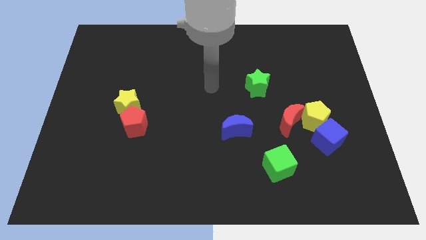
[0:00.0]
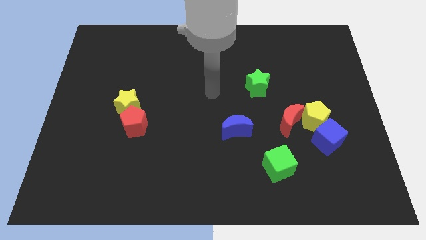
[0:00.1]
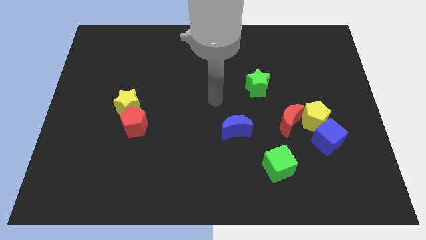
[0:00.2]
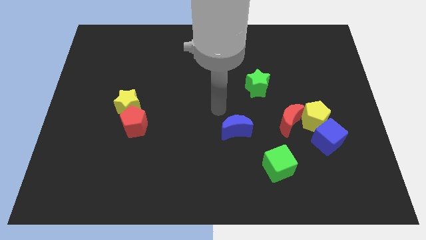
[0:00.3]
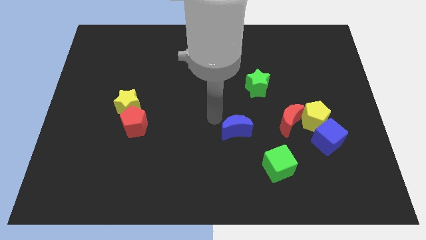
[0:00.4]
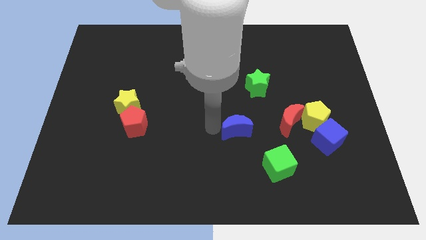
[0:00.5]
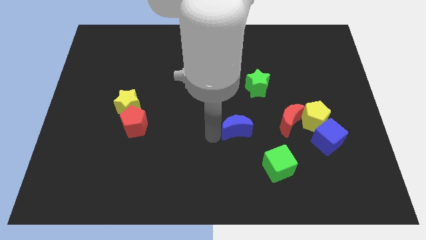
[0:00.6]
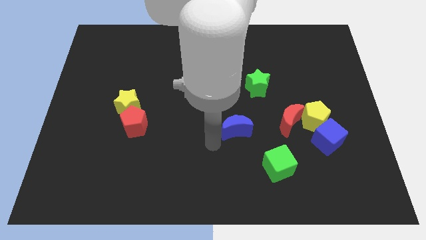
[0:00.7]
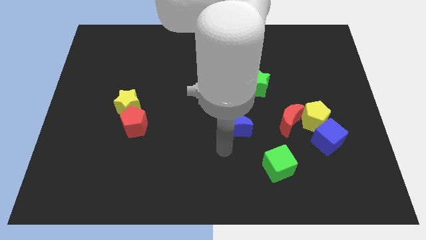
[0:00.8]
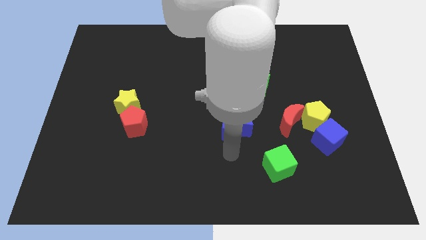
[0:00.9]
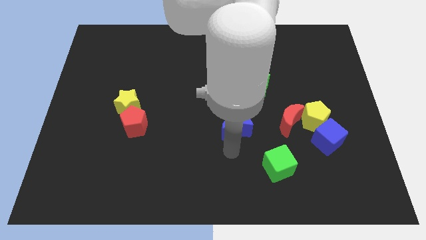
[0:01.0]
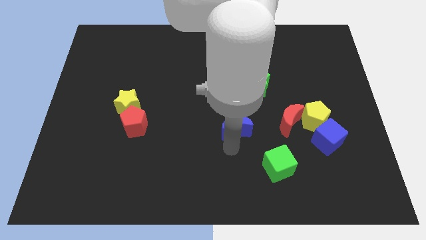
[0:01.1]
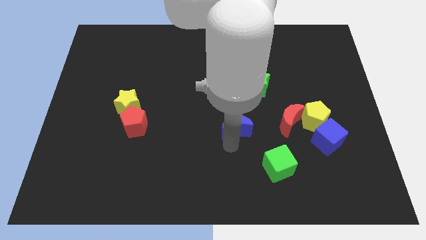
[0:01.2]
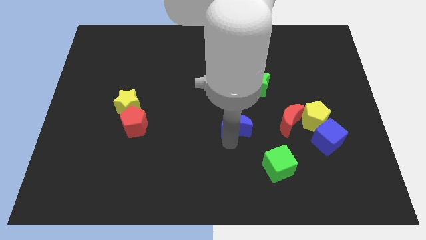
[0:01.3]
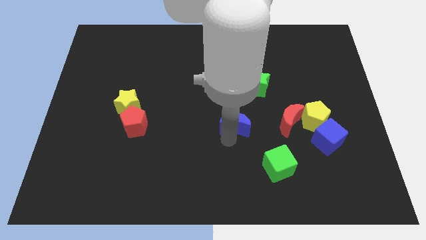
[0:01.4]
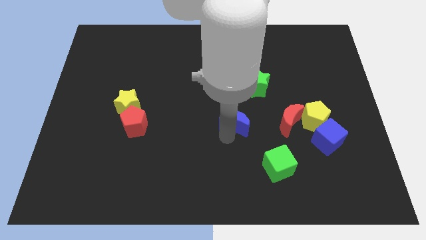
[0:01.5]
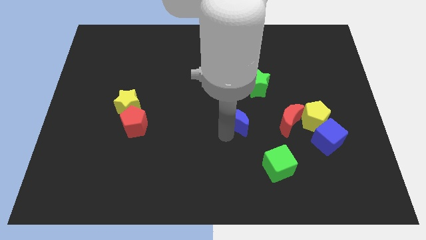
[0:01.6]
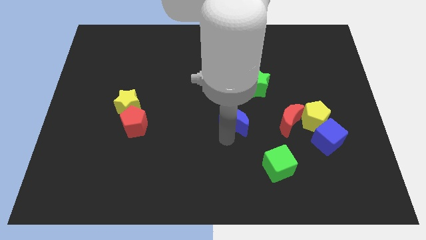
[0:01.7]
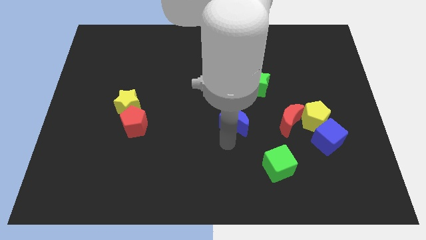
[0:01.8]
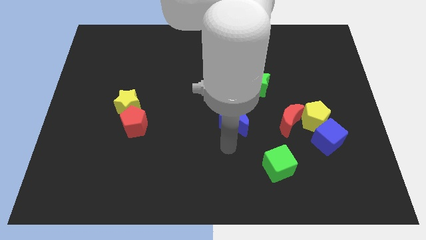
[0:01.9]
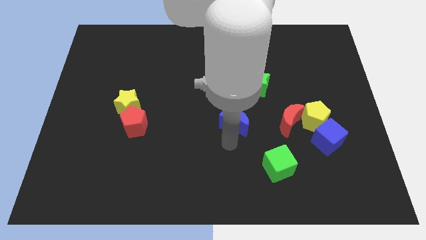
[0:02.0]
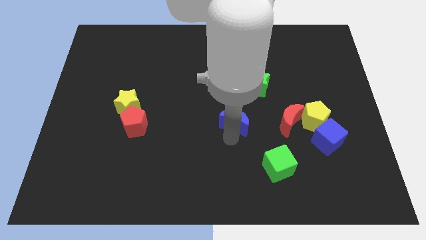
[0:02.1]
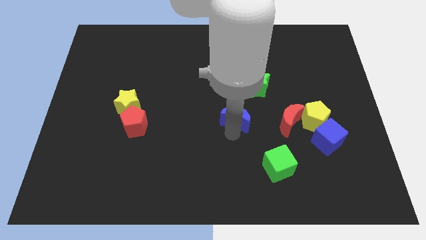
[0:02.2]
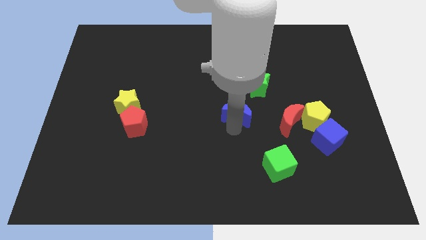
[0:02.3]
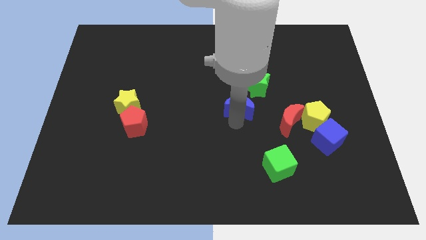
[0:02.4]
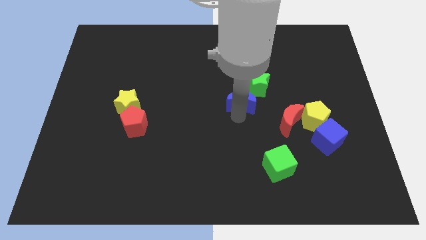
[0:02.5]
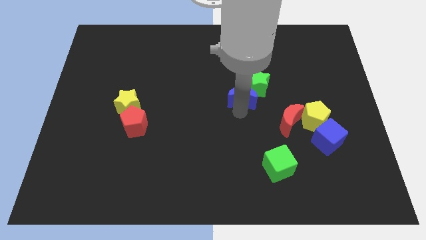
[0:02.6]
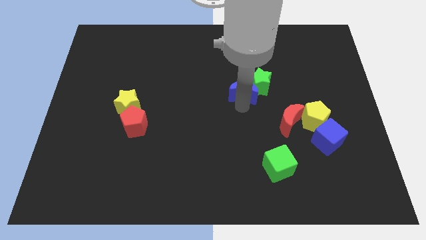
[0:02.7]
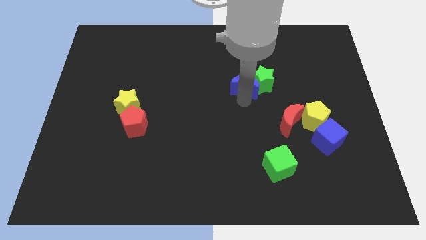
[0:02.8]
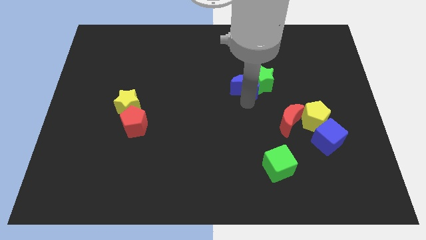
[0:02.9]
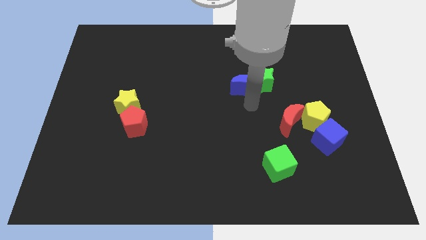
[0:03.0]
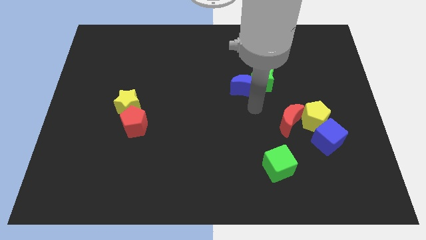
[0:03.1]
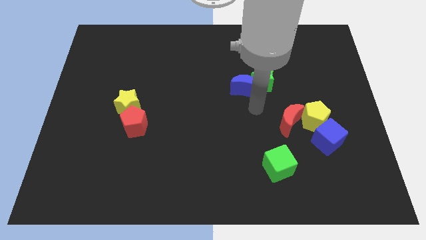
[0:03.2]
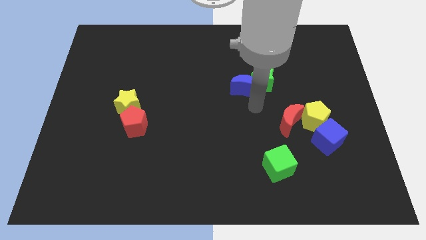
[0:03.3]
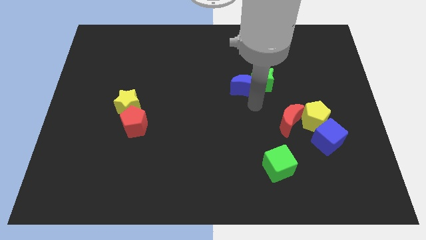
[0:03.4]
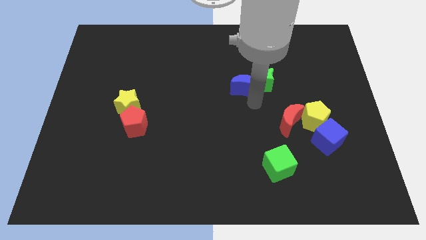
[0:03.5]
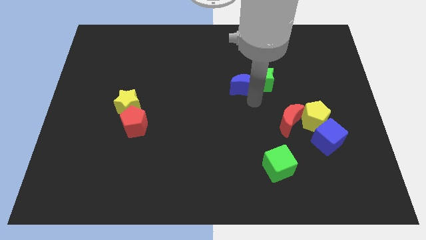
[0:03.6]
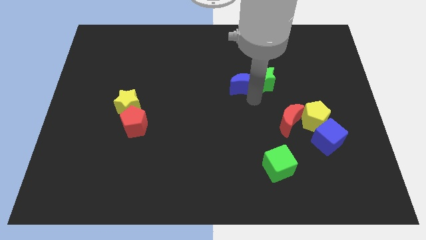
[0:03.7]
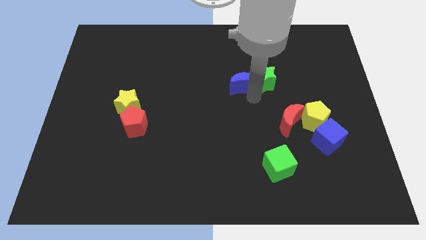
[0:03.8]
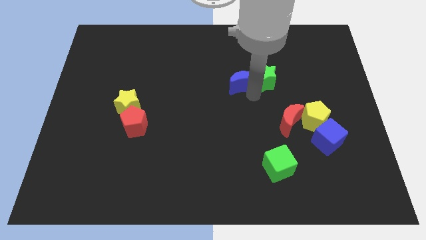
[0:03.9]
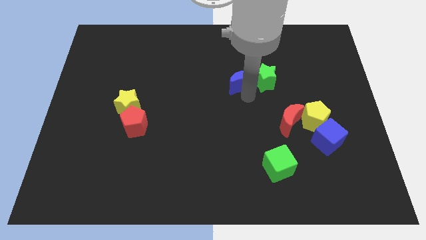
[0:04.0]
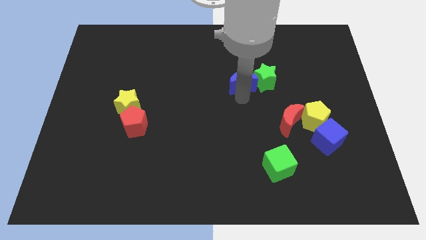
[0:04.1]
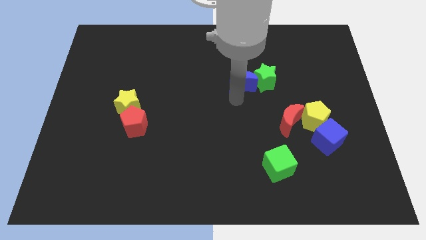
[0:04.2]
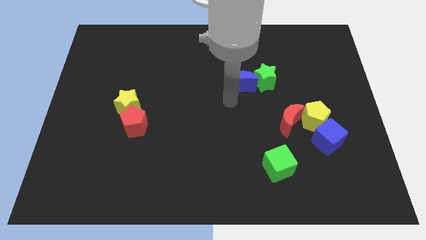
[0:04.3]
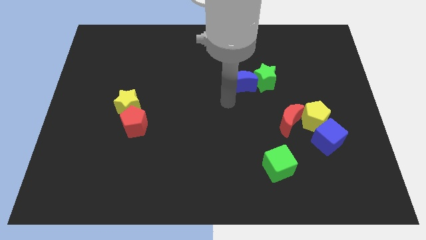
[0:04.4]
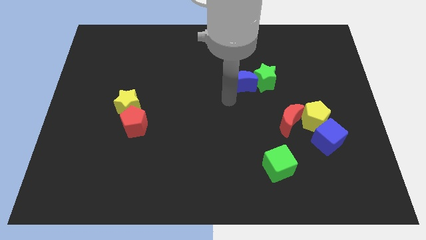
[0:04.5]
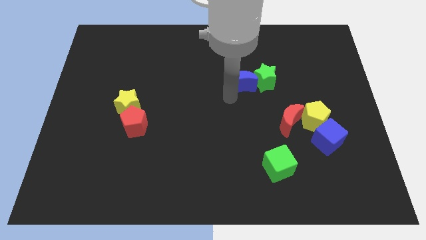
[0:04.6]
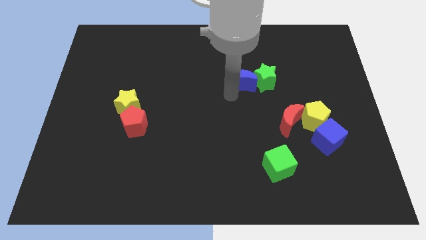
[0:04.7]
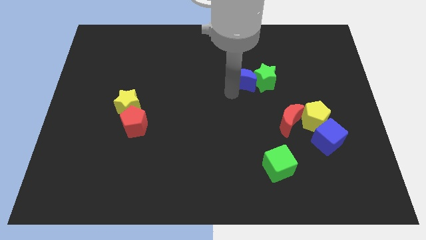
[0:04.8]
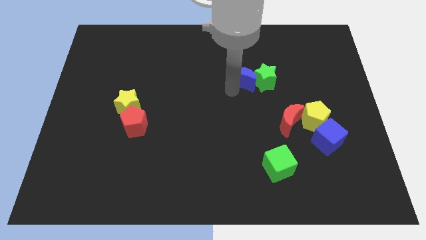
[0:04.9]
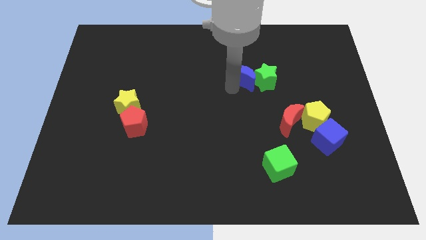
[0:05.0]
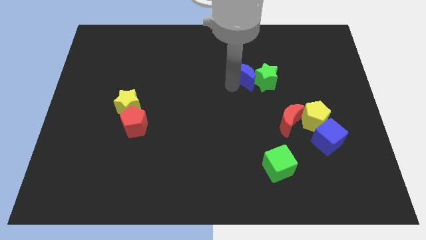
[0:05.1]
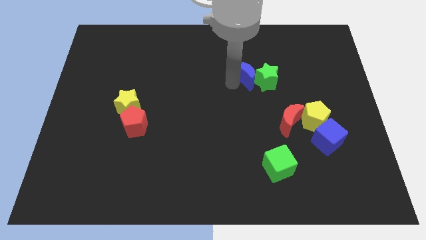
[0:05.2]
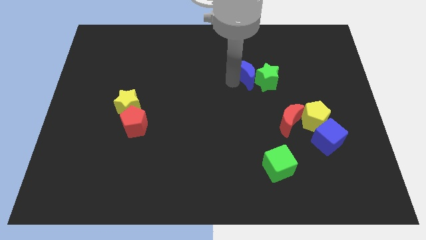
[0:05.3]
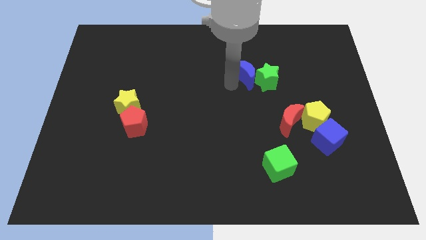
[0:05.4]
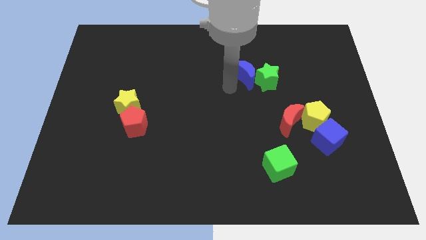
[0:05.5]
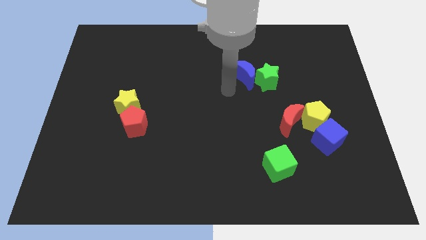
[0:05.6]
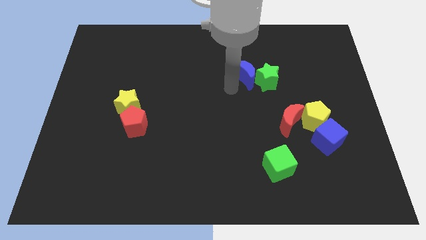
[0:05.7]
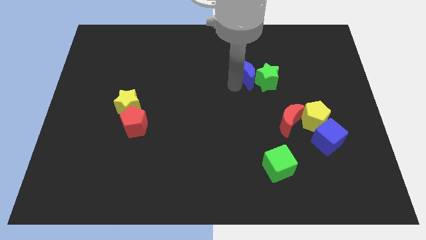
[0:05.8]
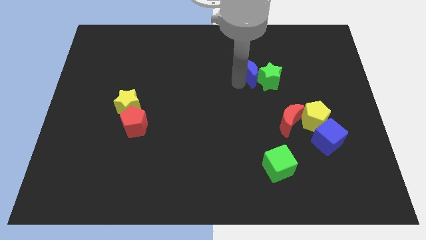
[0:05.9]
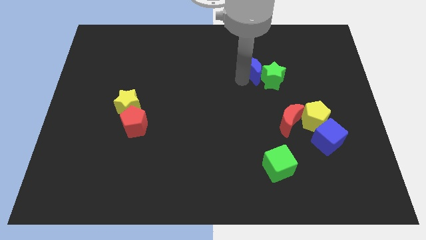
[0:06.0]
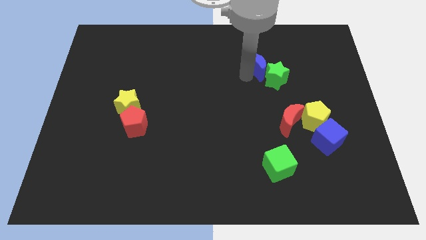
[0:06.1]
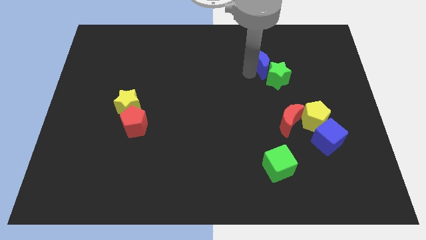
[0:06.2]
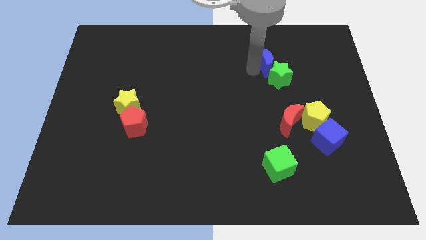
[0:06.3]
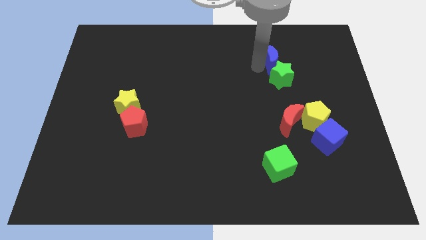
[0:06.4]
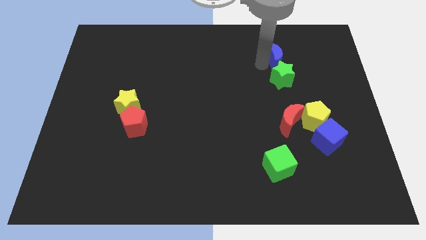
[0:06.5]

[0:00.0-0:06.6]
move the blue moon upwards and to the right diagonally

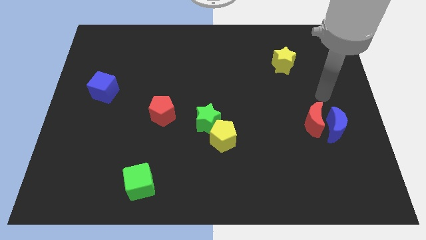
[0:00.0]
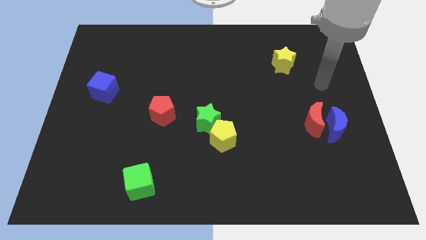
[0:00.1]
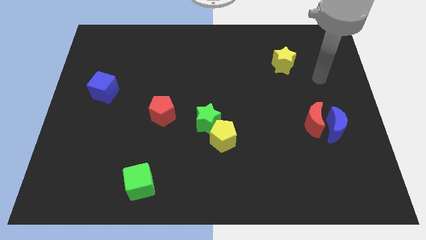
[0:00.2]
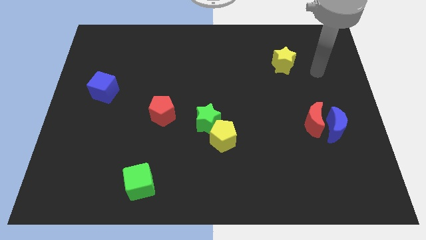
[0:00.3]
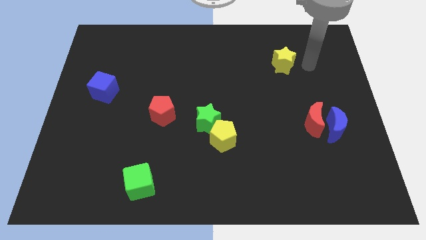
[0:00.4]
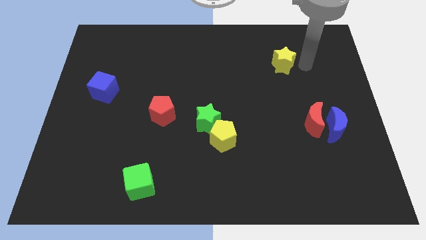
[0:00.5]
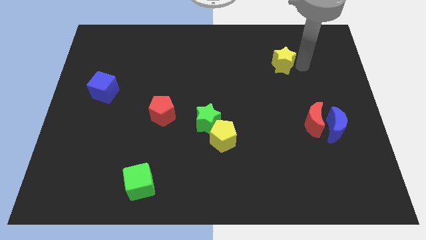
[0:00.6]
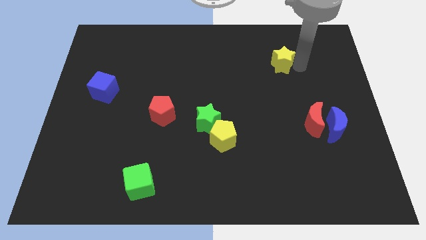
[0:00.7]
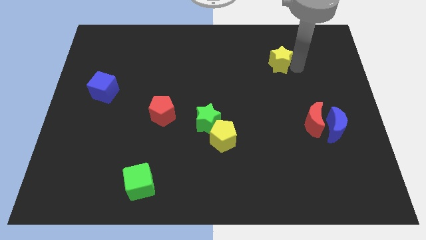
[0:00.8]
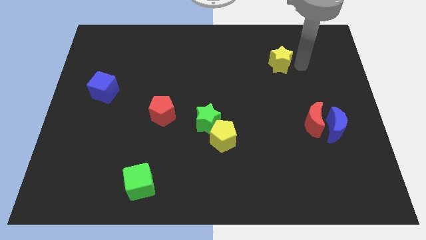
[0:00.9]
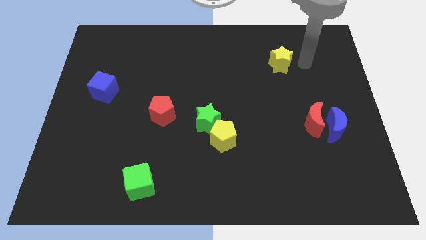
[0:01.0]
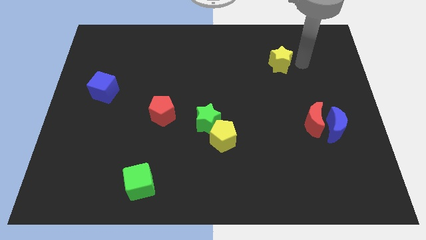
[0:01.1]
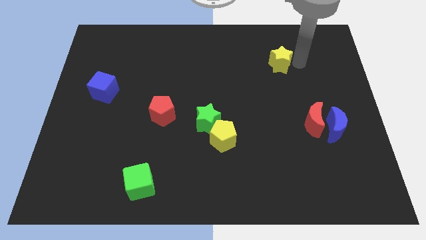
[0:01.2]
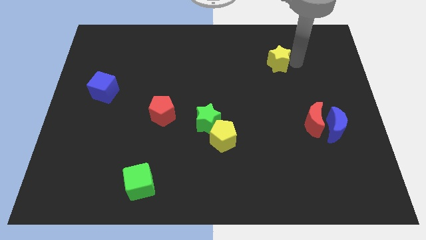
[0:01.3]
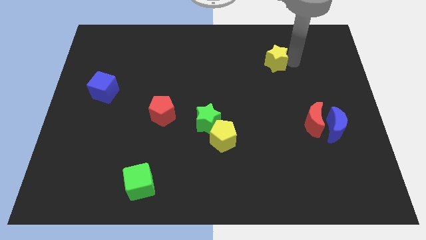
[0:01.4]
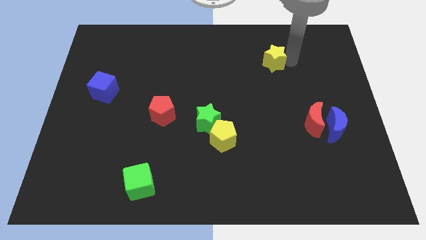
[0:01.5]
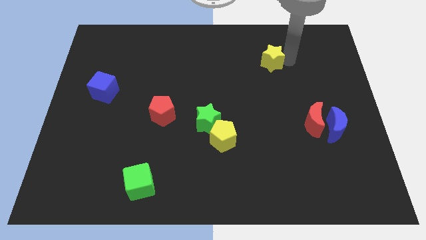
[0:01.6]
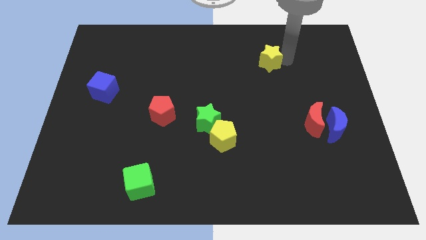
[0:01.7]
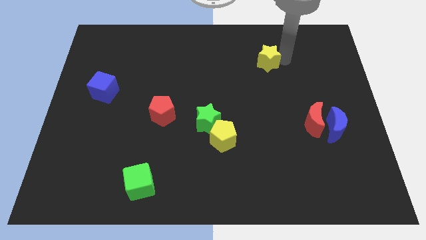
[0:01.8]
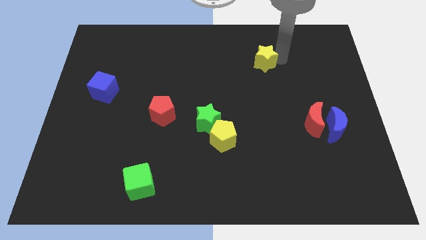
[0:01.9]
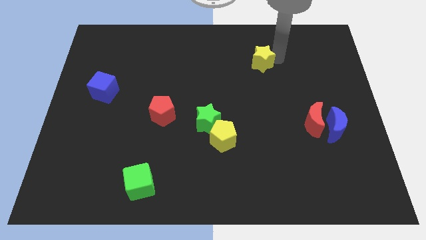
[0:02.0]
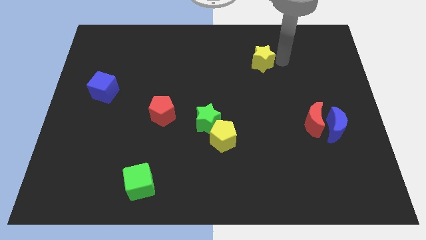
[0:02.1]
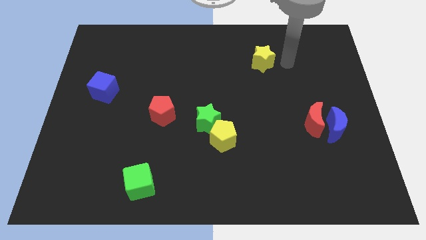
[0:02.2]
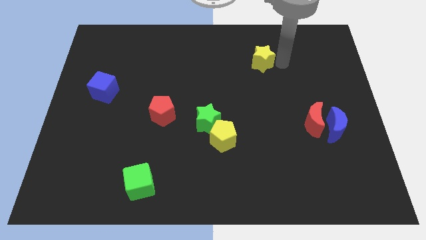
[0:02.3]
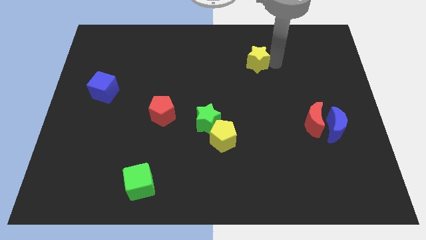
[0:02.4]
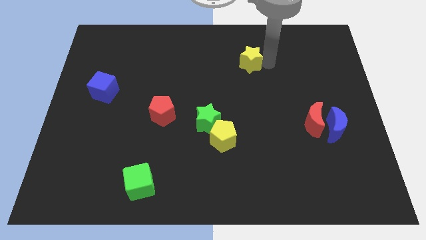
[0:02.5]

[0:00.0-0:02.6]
push the yellow star somewhat left
